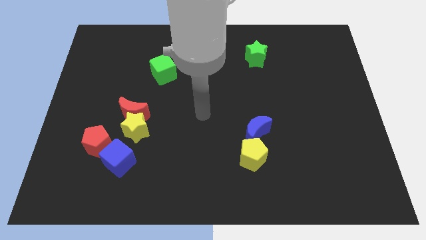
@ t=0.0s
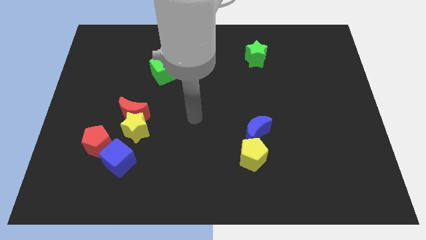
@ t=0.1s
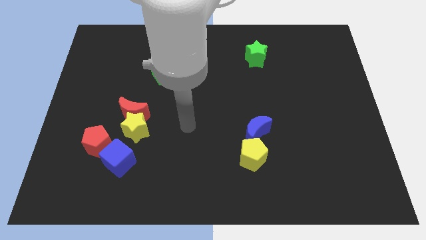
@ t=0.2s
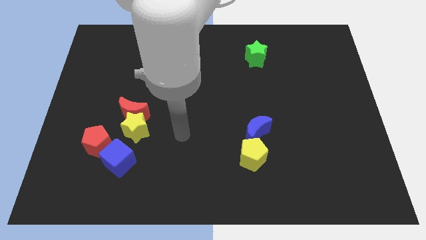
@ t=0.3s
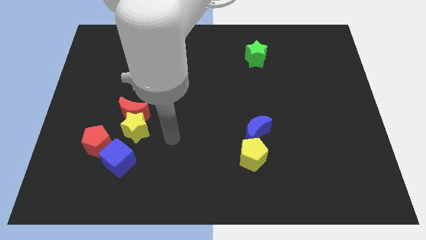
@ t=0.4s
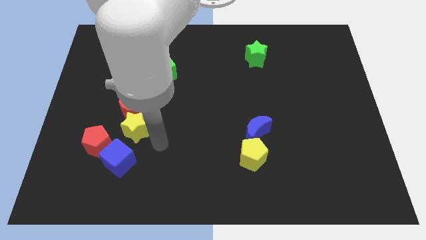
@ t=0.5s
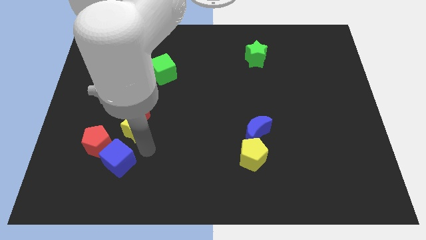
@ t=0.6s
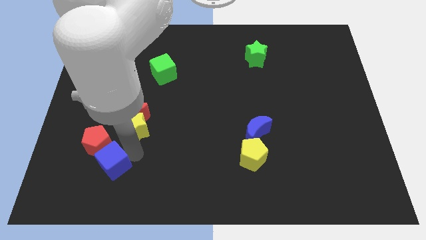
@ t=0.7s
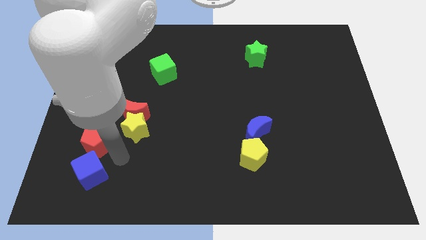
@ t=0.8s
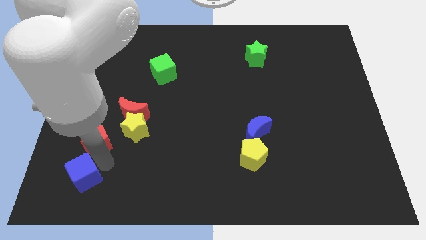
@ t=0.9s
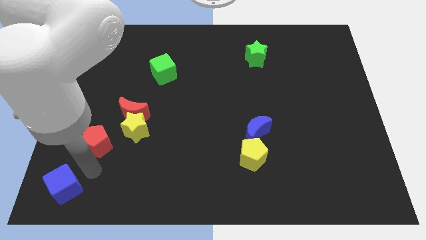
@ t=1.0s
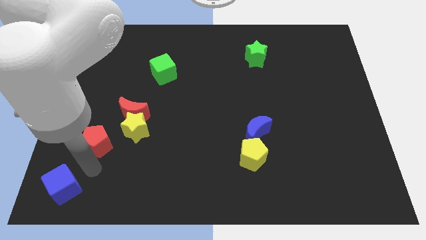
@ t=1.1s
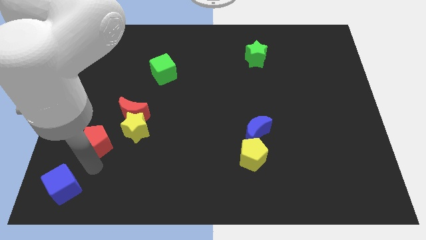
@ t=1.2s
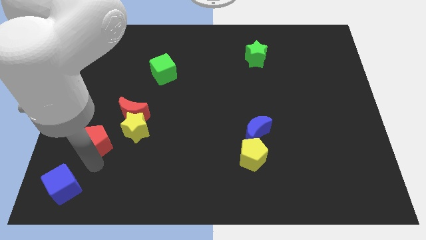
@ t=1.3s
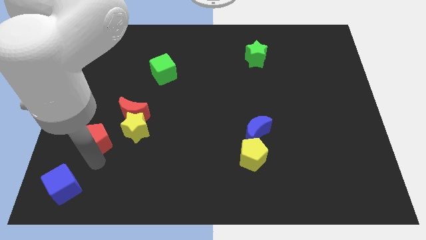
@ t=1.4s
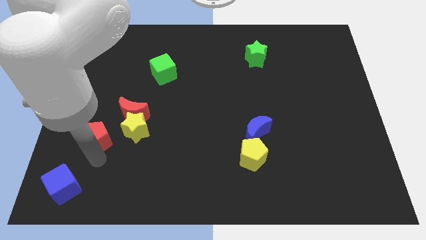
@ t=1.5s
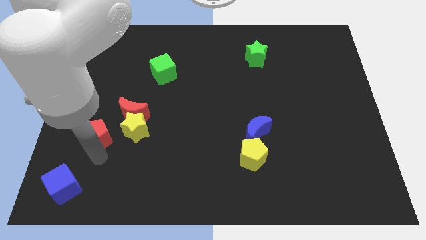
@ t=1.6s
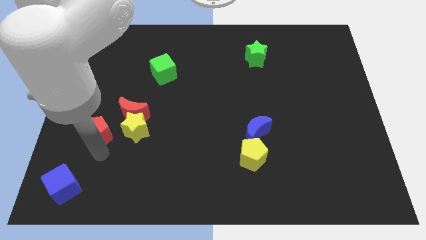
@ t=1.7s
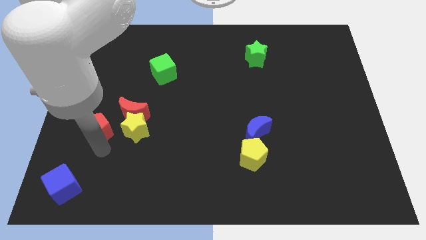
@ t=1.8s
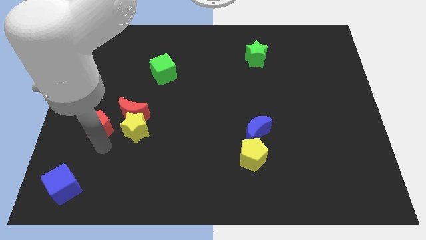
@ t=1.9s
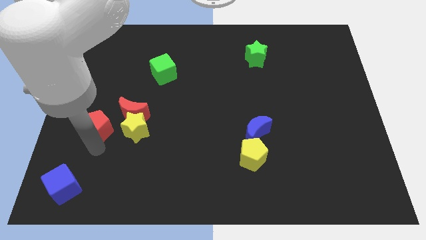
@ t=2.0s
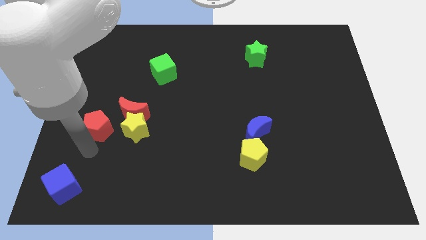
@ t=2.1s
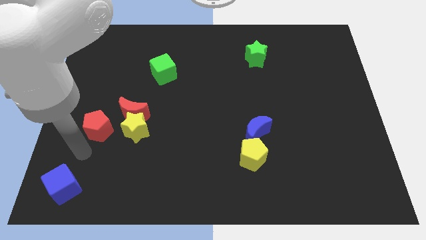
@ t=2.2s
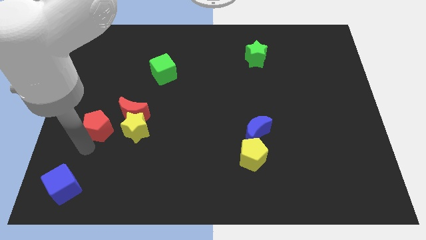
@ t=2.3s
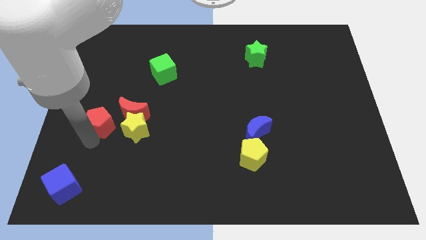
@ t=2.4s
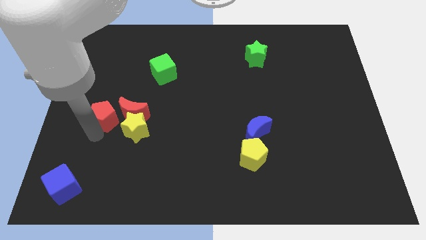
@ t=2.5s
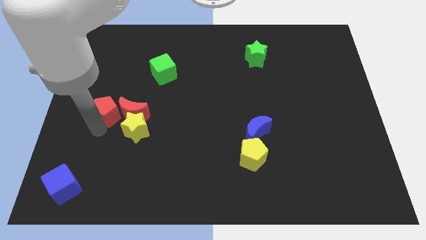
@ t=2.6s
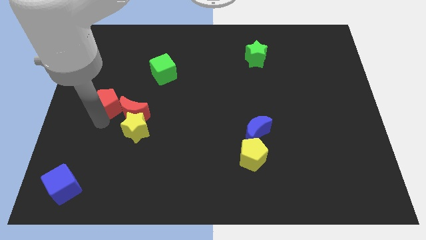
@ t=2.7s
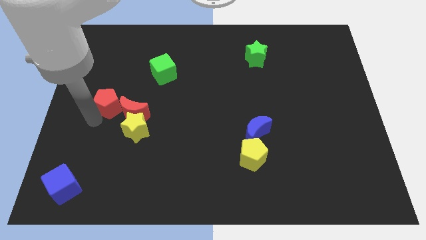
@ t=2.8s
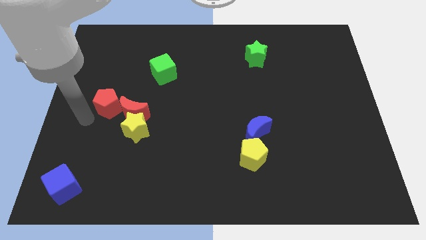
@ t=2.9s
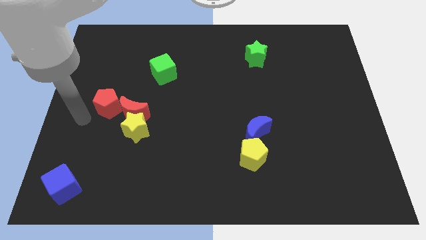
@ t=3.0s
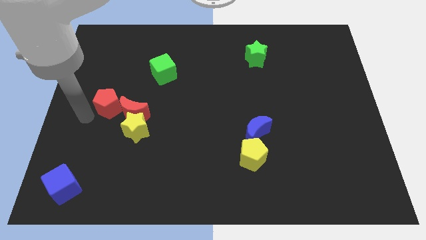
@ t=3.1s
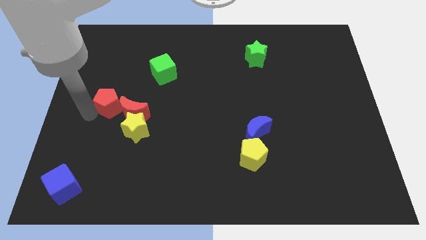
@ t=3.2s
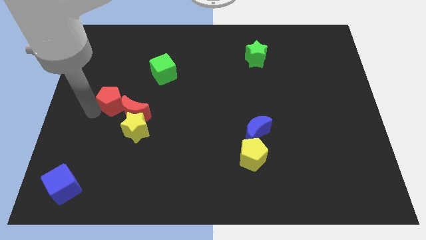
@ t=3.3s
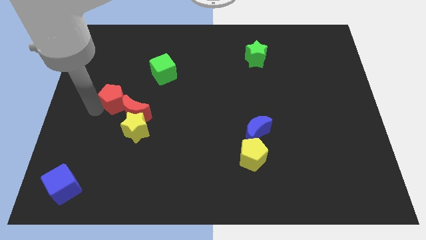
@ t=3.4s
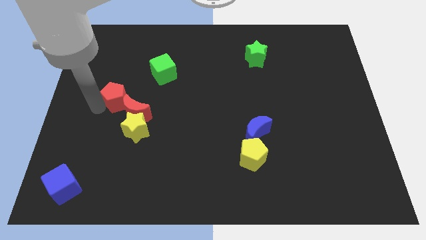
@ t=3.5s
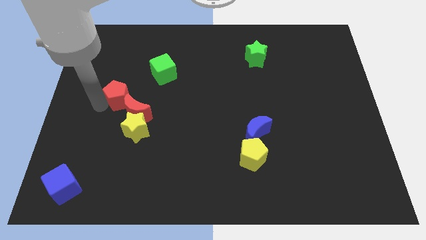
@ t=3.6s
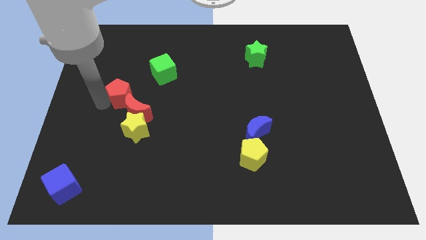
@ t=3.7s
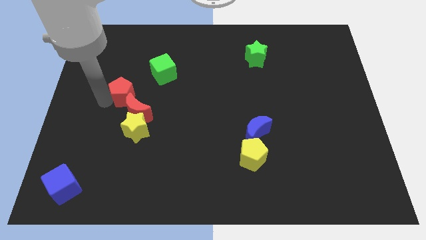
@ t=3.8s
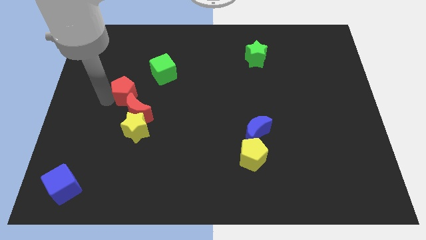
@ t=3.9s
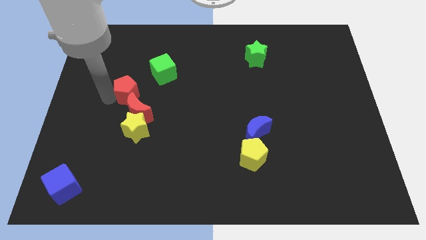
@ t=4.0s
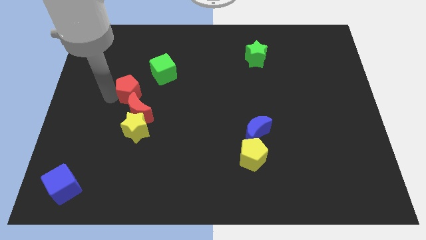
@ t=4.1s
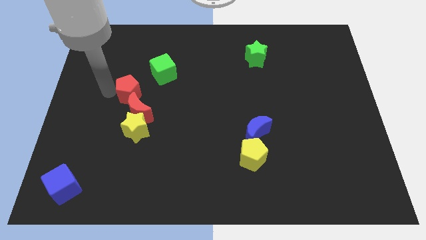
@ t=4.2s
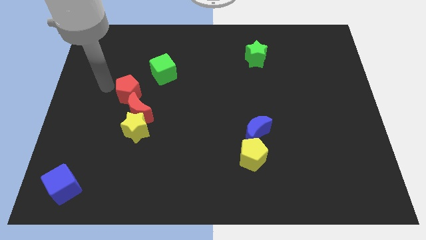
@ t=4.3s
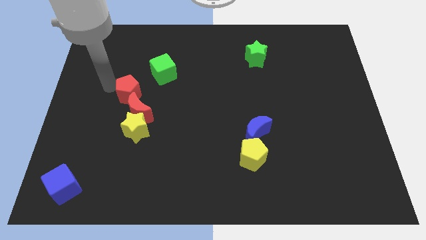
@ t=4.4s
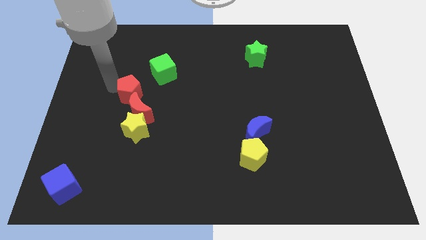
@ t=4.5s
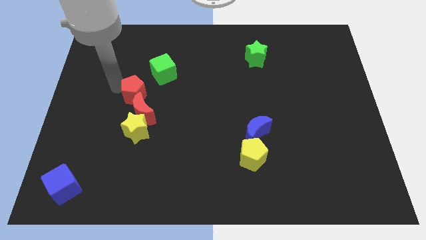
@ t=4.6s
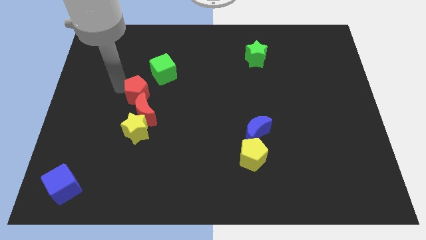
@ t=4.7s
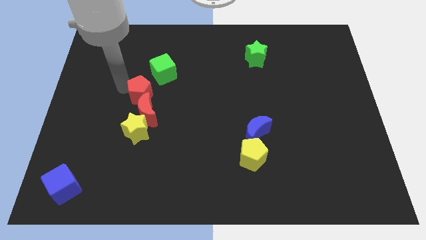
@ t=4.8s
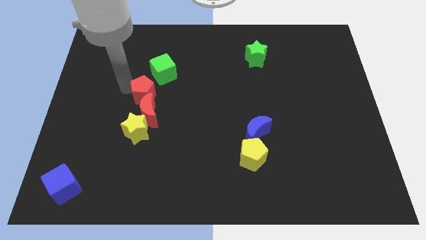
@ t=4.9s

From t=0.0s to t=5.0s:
put the red pentagon to the bottom side of the green cube

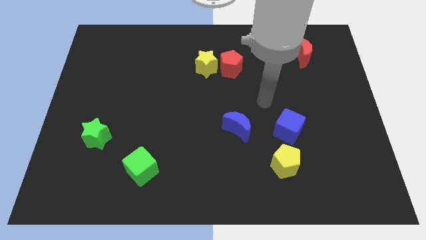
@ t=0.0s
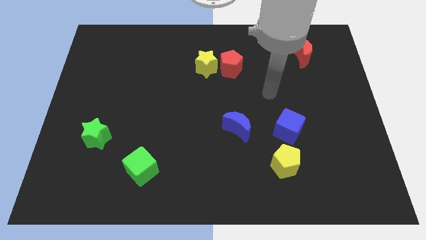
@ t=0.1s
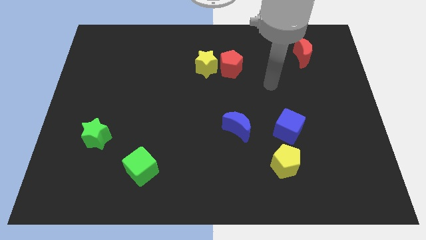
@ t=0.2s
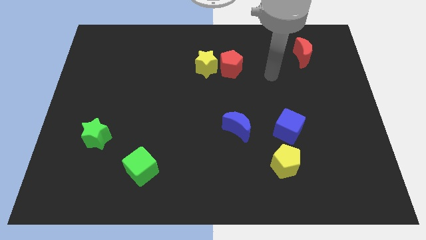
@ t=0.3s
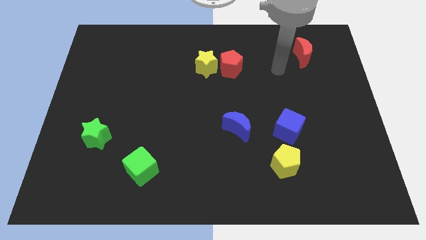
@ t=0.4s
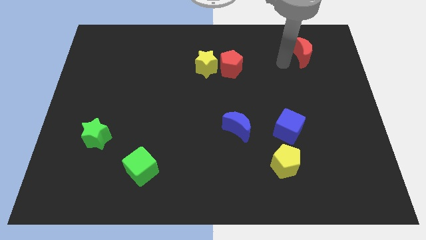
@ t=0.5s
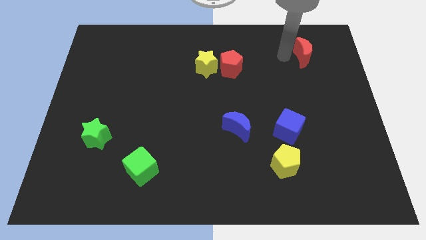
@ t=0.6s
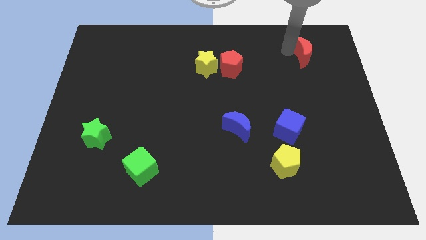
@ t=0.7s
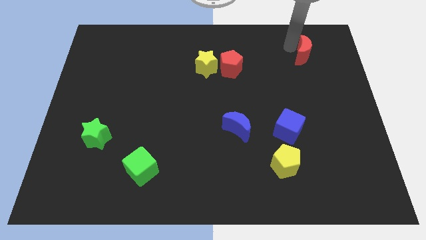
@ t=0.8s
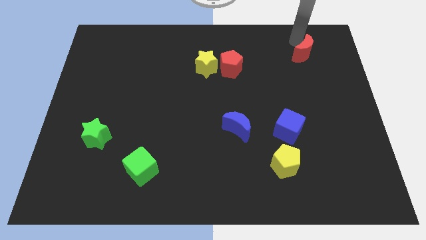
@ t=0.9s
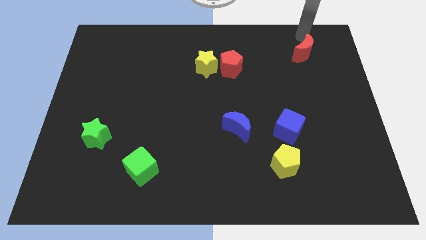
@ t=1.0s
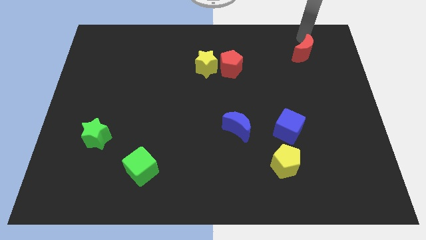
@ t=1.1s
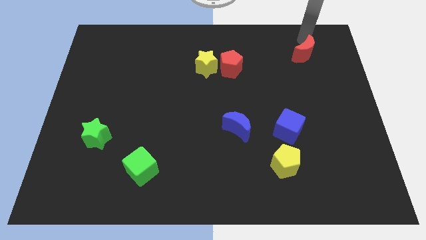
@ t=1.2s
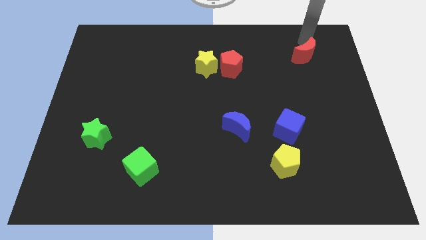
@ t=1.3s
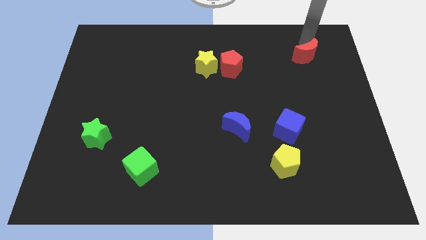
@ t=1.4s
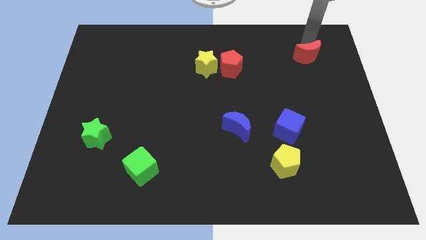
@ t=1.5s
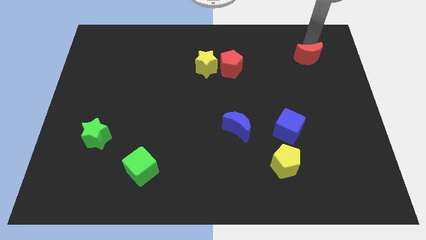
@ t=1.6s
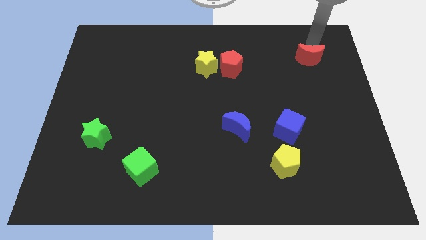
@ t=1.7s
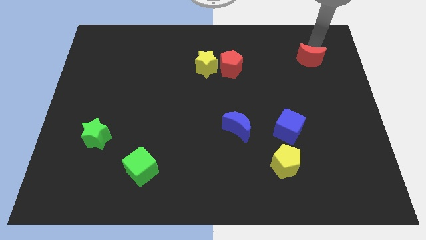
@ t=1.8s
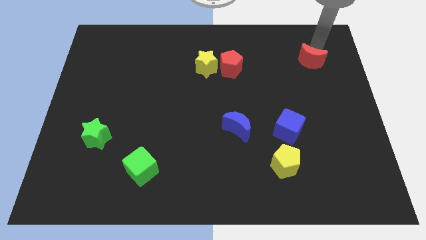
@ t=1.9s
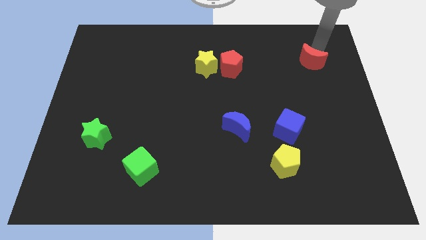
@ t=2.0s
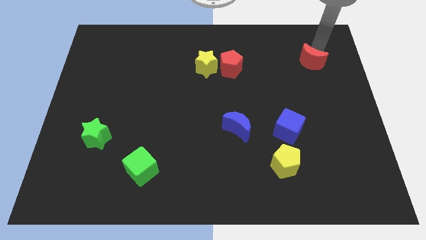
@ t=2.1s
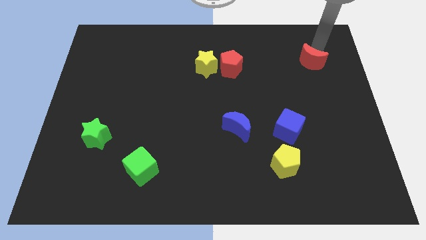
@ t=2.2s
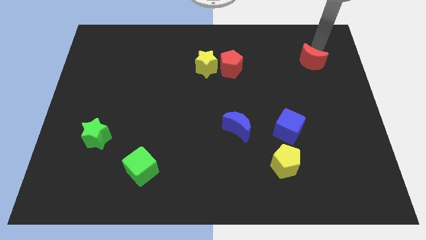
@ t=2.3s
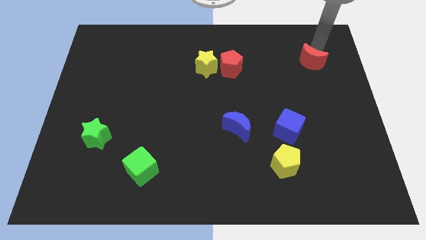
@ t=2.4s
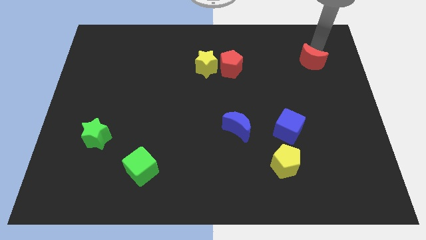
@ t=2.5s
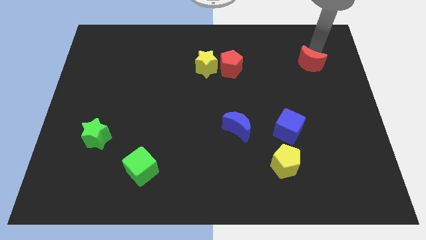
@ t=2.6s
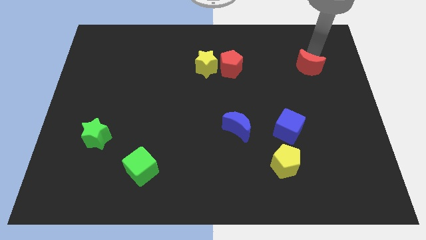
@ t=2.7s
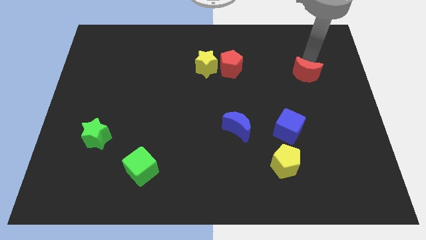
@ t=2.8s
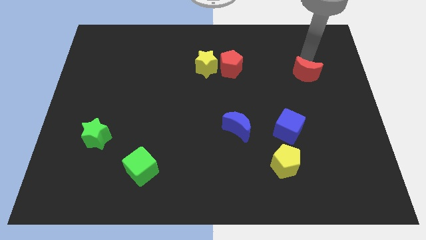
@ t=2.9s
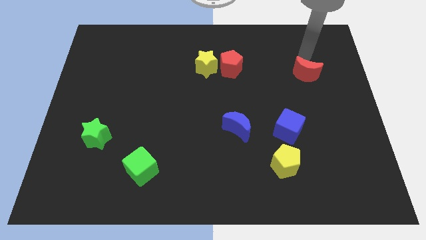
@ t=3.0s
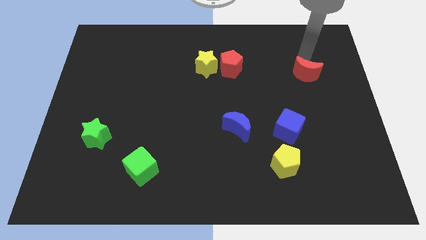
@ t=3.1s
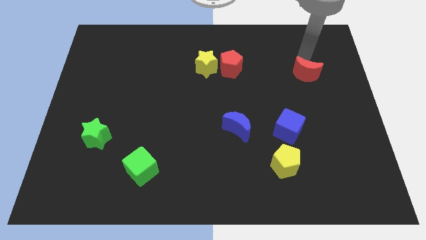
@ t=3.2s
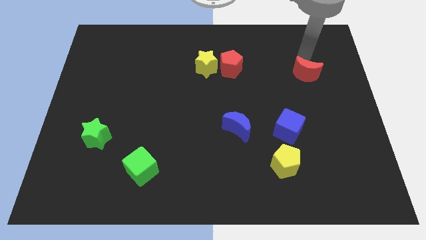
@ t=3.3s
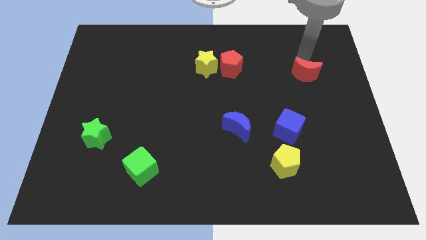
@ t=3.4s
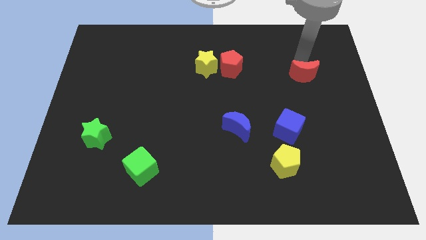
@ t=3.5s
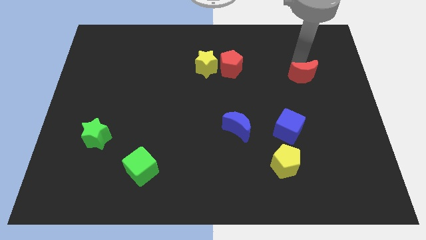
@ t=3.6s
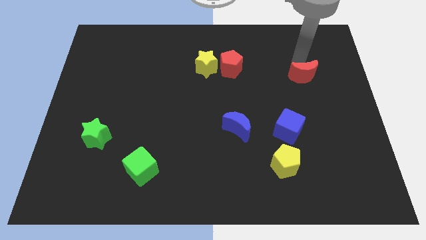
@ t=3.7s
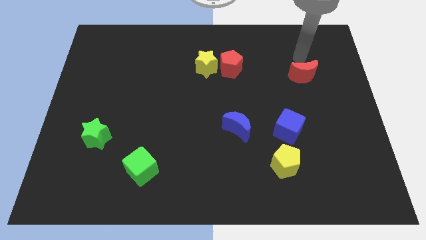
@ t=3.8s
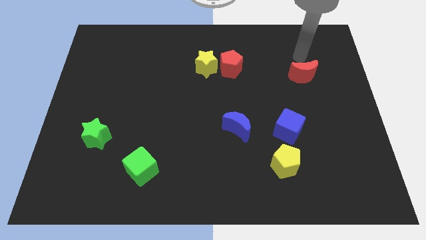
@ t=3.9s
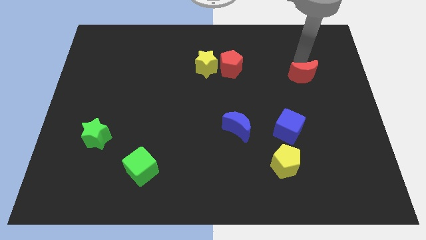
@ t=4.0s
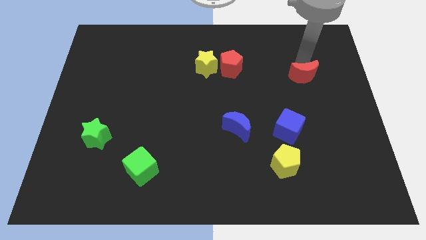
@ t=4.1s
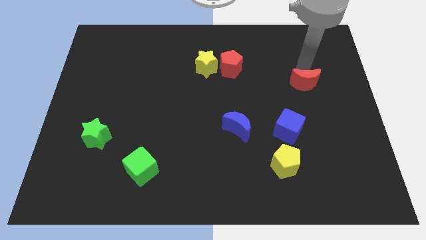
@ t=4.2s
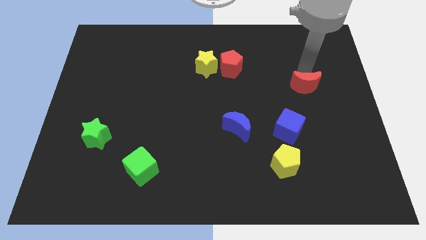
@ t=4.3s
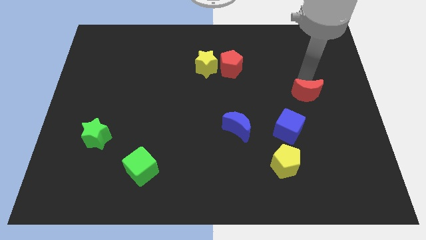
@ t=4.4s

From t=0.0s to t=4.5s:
slide the red moon to the top right side of the blue cube
